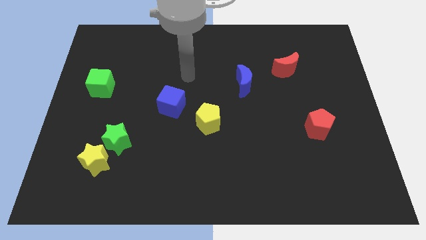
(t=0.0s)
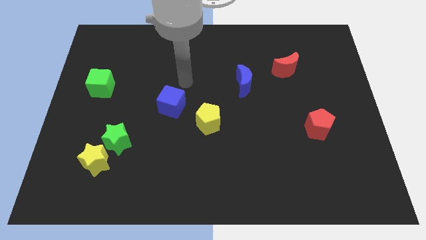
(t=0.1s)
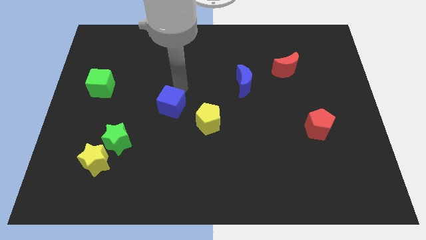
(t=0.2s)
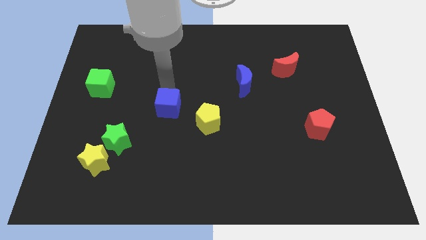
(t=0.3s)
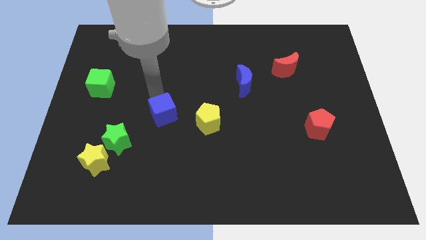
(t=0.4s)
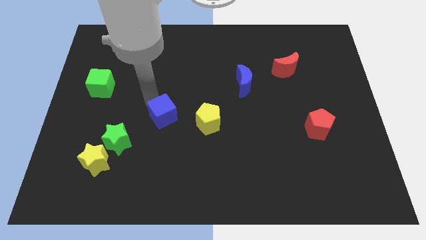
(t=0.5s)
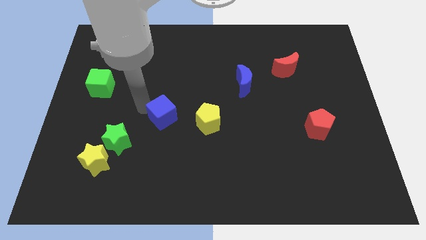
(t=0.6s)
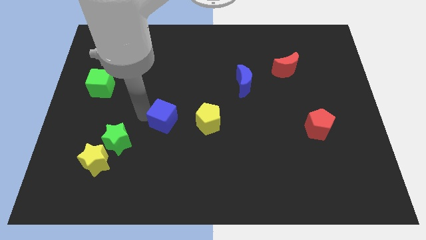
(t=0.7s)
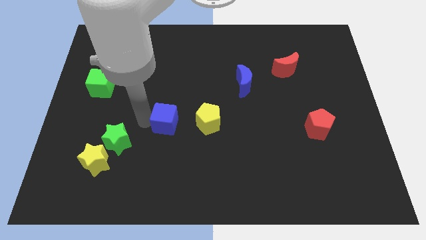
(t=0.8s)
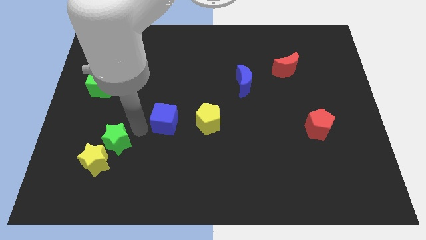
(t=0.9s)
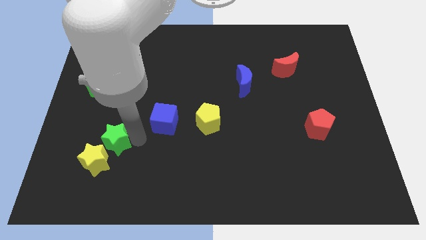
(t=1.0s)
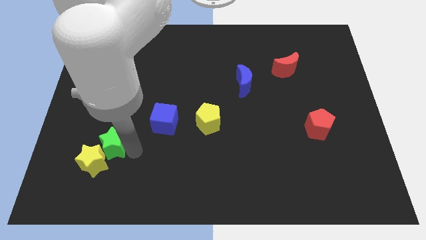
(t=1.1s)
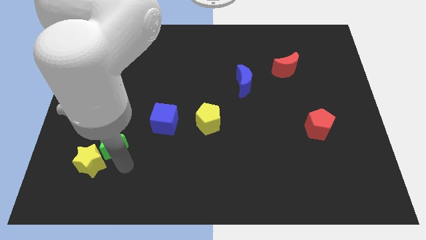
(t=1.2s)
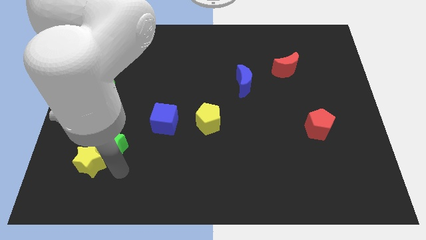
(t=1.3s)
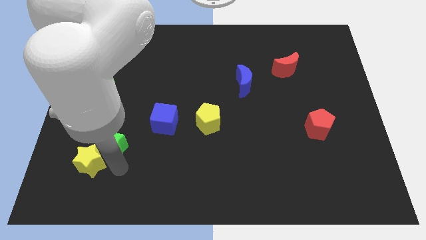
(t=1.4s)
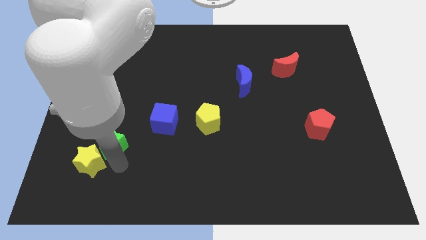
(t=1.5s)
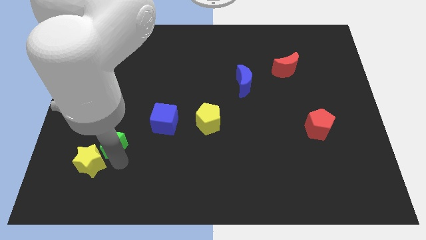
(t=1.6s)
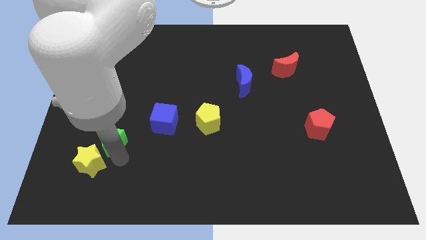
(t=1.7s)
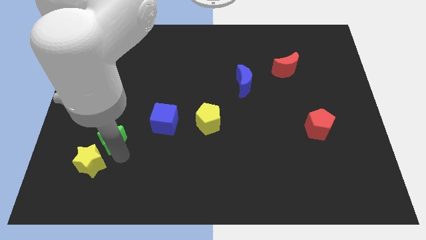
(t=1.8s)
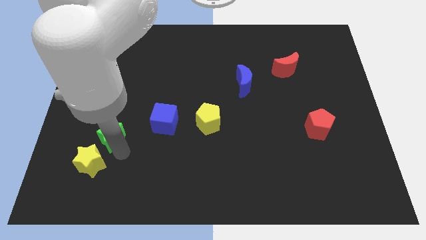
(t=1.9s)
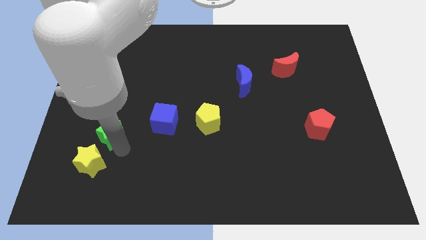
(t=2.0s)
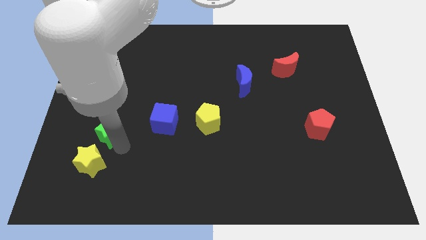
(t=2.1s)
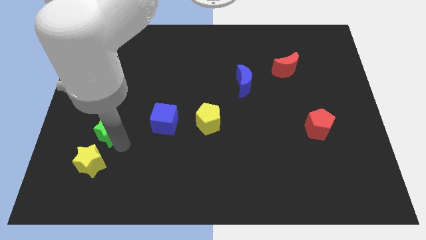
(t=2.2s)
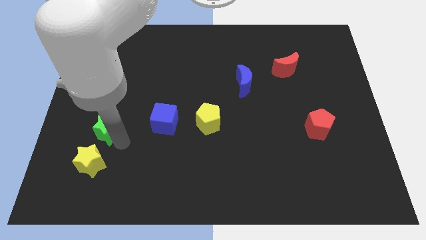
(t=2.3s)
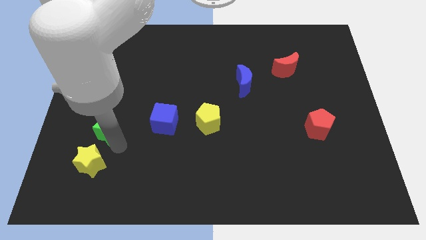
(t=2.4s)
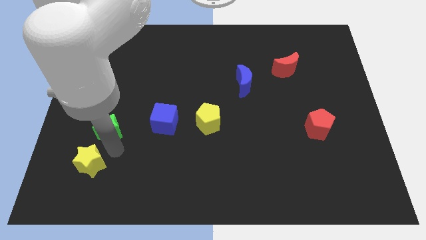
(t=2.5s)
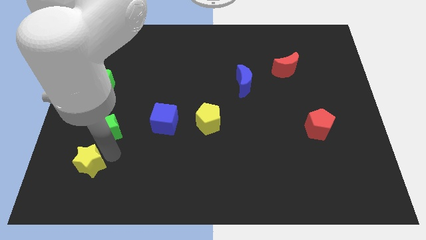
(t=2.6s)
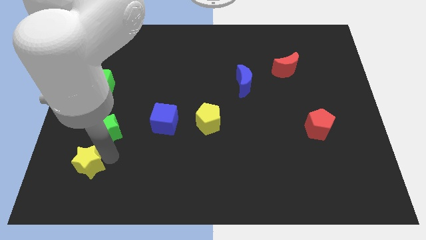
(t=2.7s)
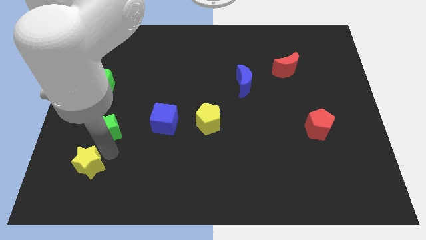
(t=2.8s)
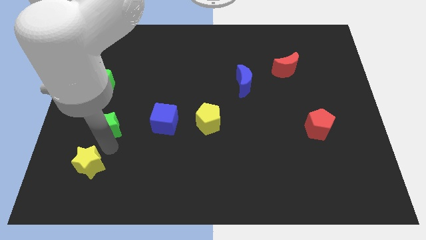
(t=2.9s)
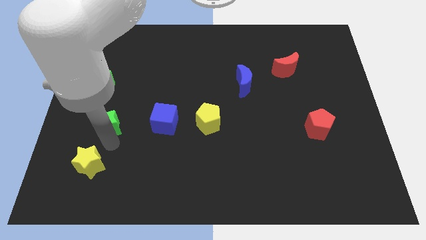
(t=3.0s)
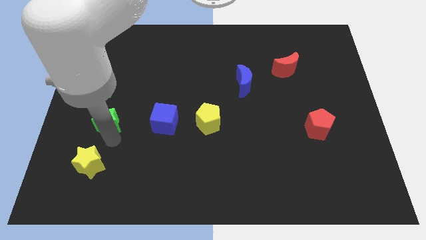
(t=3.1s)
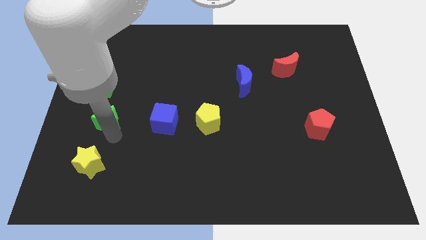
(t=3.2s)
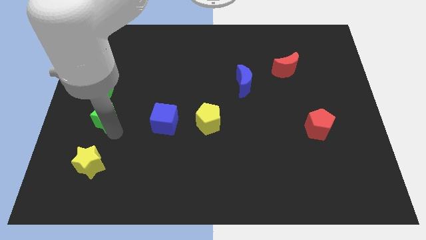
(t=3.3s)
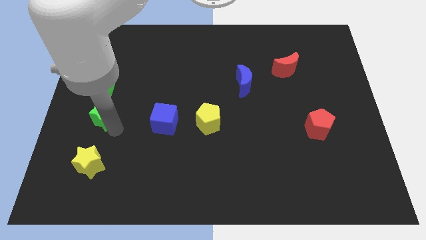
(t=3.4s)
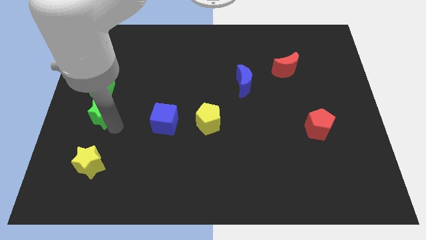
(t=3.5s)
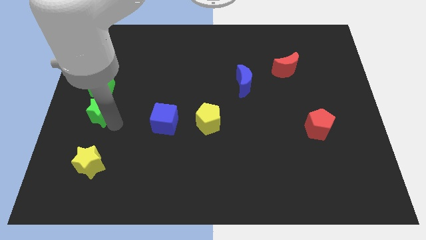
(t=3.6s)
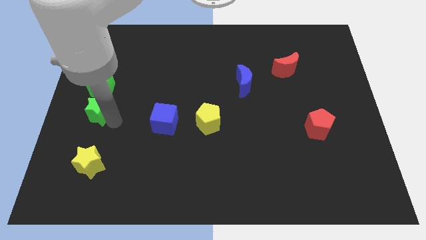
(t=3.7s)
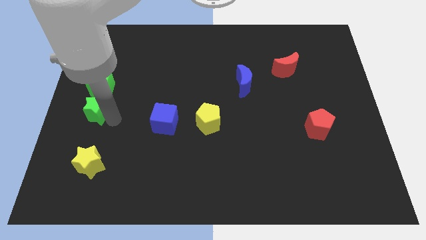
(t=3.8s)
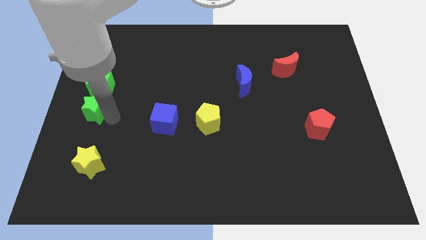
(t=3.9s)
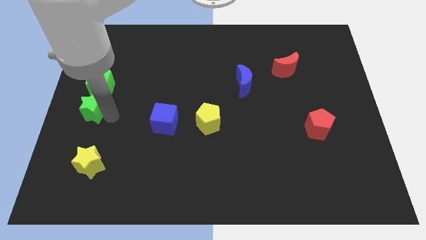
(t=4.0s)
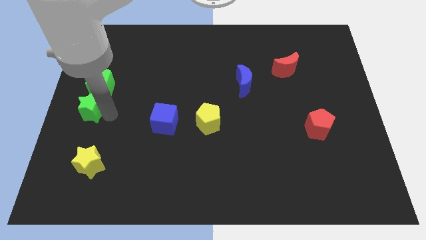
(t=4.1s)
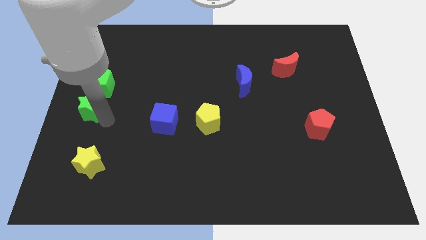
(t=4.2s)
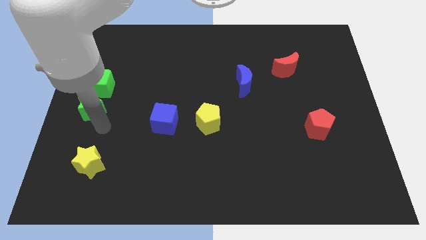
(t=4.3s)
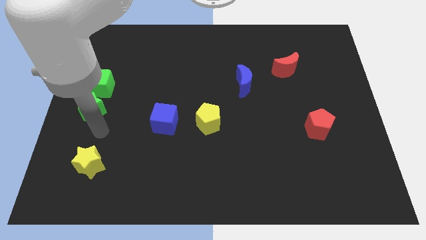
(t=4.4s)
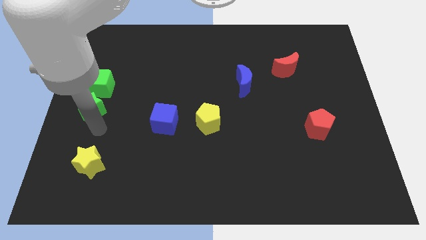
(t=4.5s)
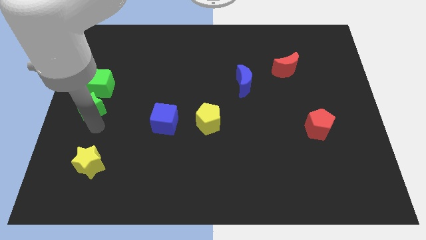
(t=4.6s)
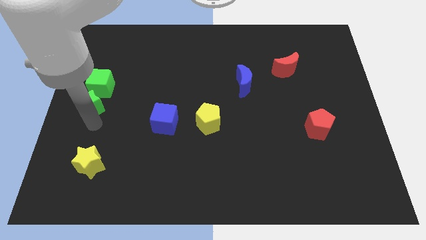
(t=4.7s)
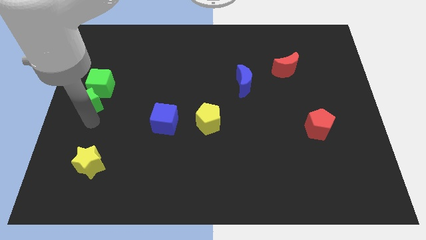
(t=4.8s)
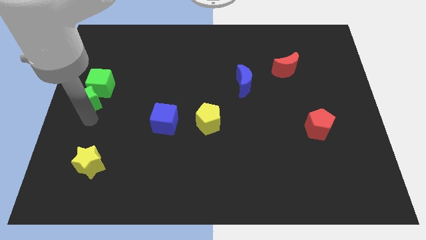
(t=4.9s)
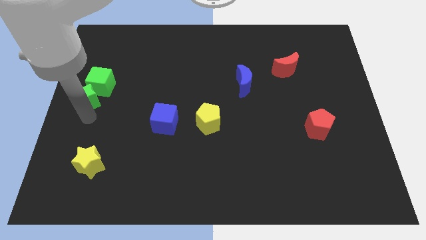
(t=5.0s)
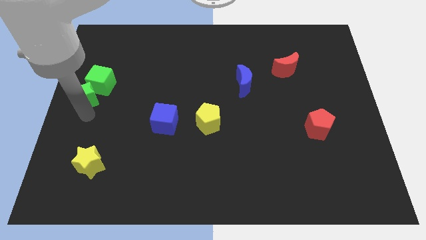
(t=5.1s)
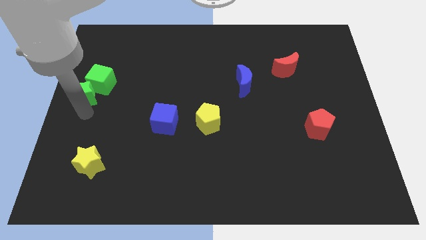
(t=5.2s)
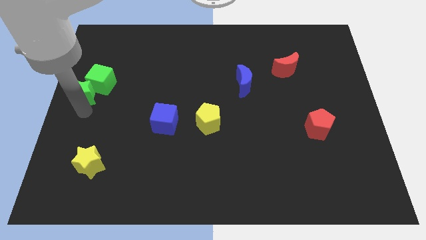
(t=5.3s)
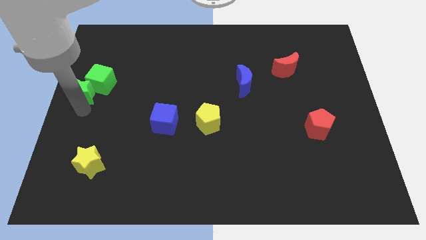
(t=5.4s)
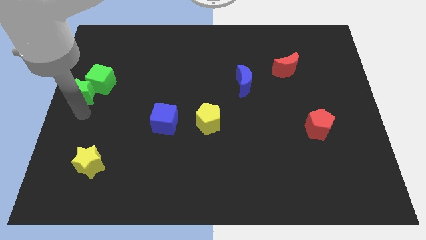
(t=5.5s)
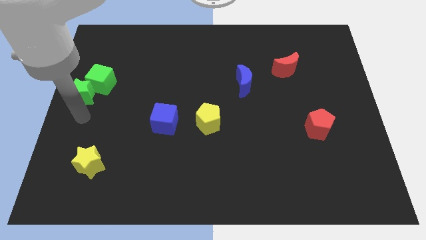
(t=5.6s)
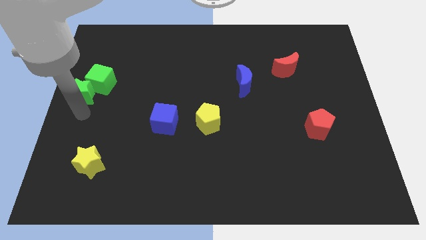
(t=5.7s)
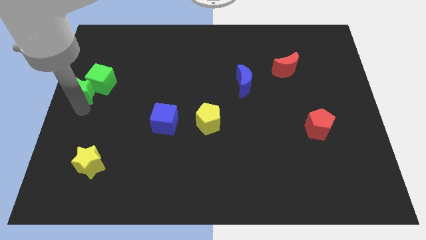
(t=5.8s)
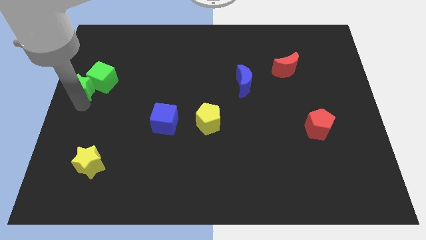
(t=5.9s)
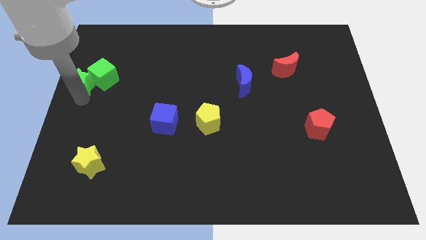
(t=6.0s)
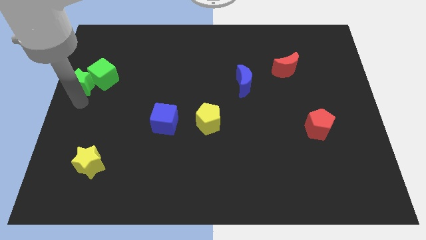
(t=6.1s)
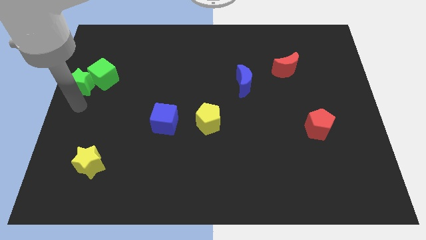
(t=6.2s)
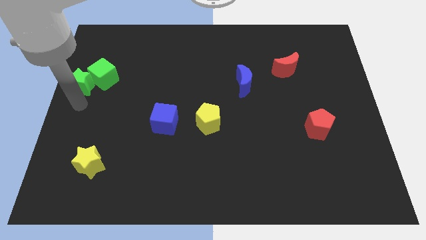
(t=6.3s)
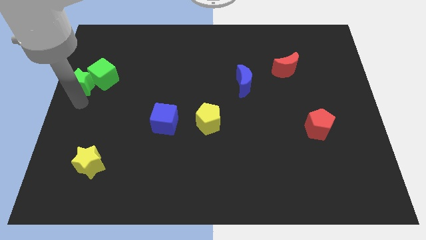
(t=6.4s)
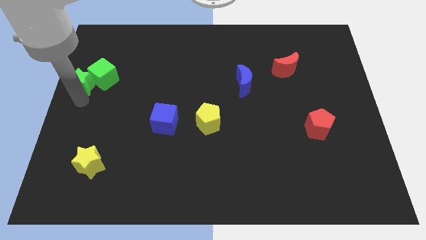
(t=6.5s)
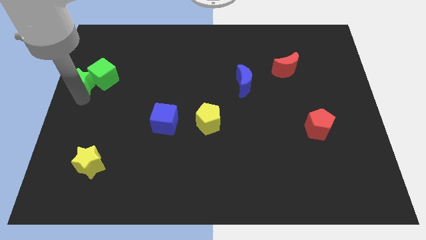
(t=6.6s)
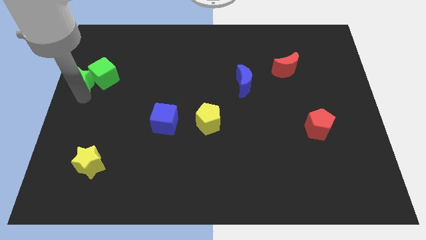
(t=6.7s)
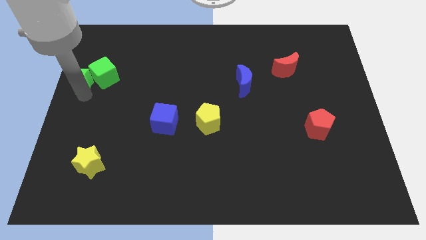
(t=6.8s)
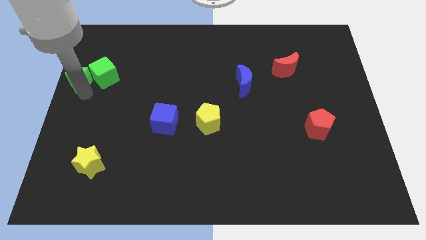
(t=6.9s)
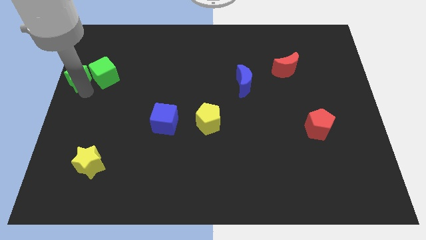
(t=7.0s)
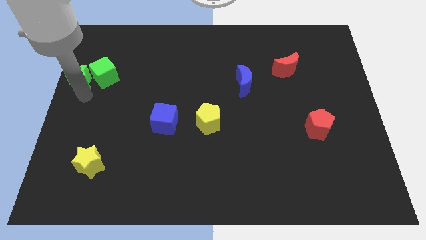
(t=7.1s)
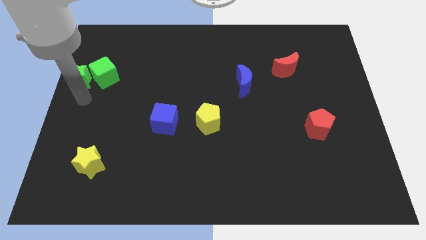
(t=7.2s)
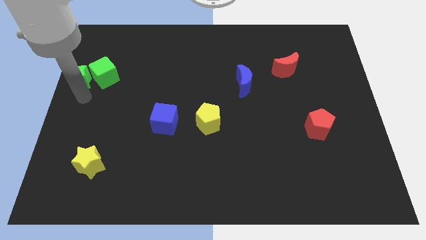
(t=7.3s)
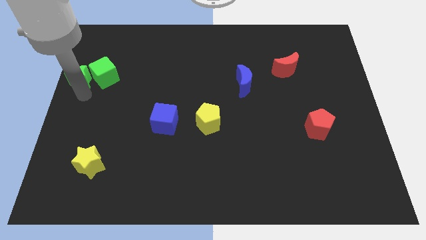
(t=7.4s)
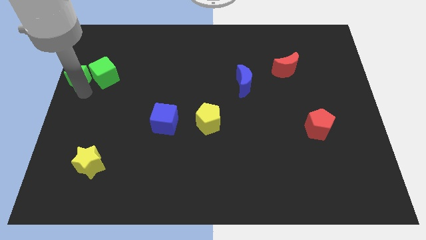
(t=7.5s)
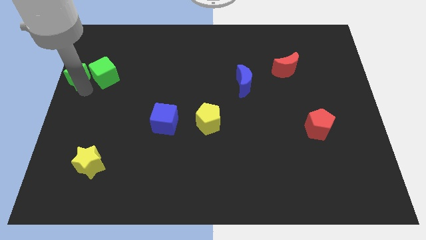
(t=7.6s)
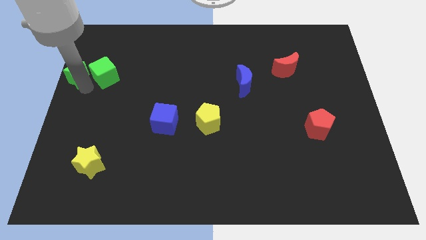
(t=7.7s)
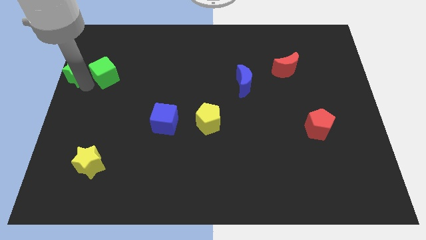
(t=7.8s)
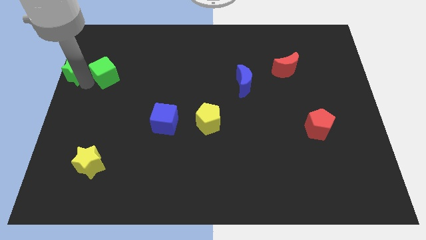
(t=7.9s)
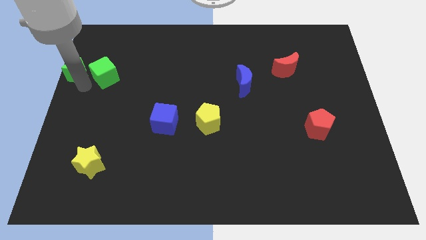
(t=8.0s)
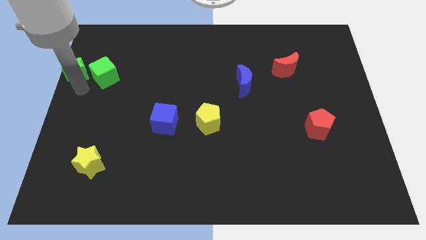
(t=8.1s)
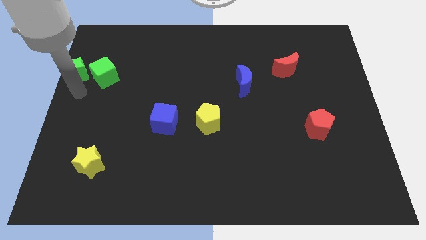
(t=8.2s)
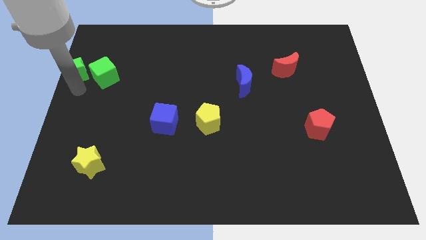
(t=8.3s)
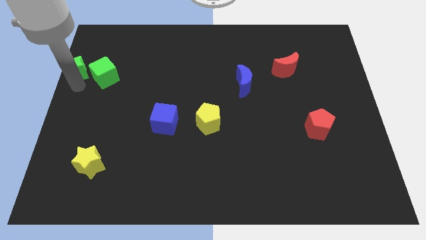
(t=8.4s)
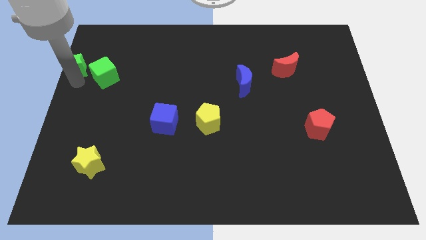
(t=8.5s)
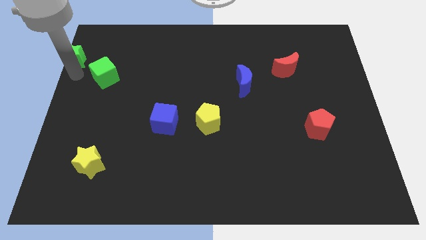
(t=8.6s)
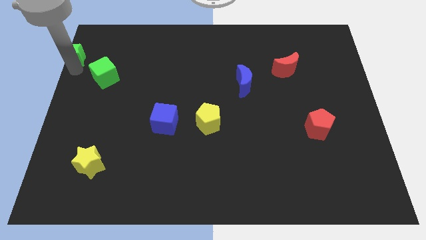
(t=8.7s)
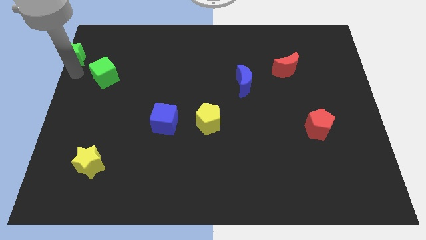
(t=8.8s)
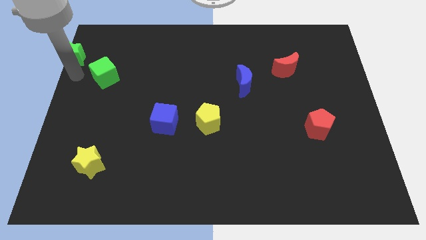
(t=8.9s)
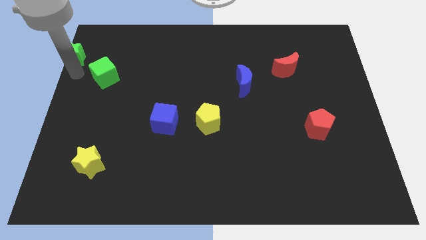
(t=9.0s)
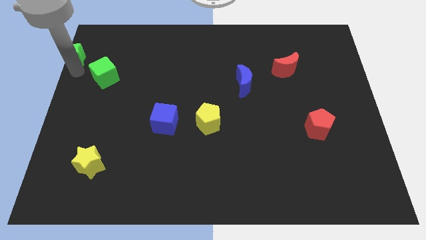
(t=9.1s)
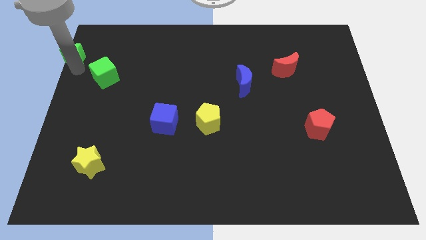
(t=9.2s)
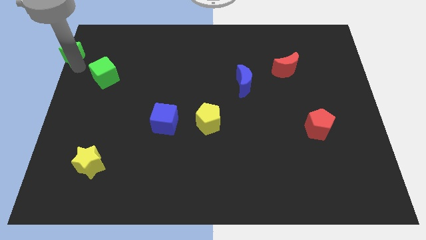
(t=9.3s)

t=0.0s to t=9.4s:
push the green star to the upper left corner
